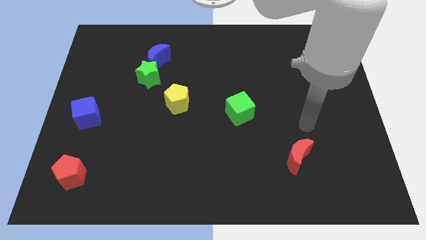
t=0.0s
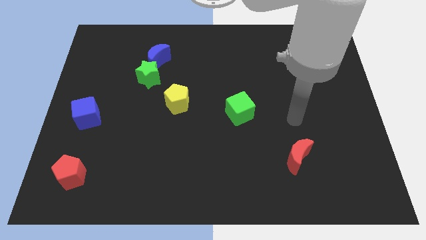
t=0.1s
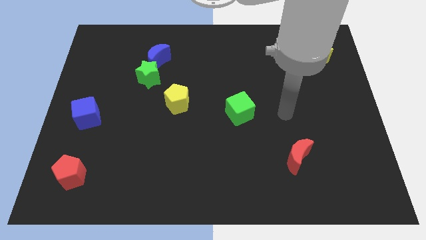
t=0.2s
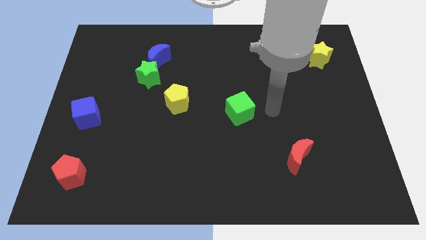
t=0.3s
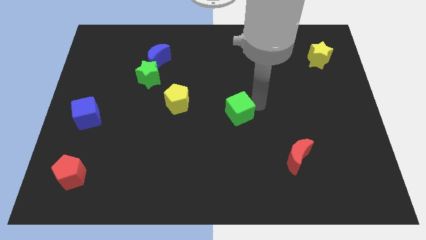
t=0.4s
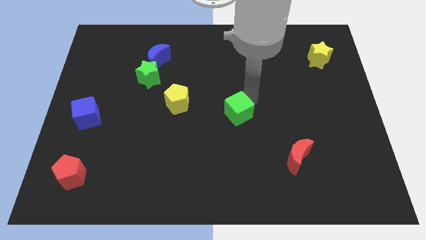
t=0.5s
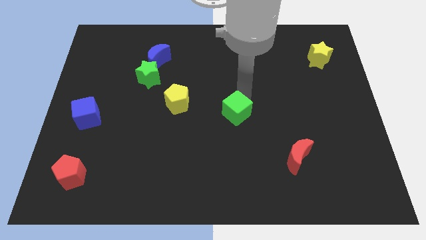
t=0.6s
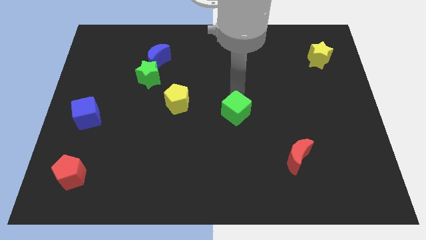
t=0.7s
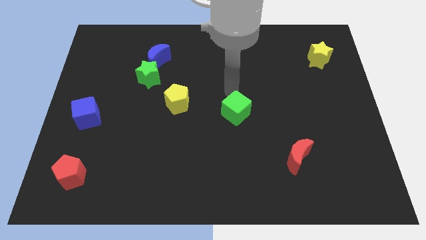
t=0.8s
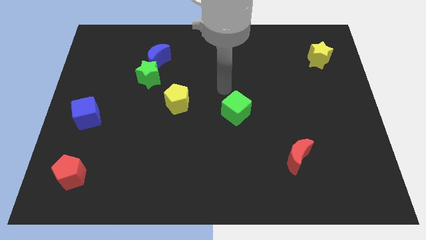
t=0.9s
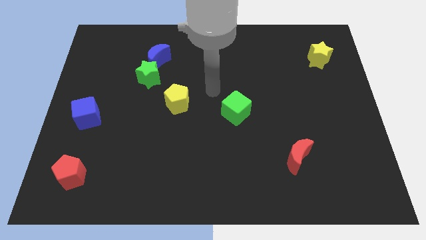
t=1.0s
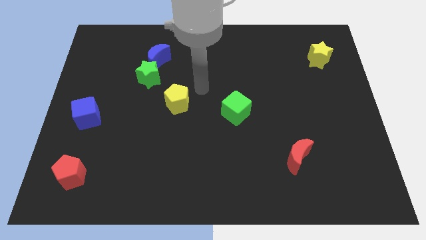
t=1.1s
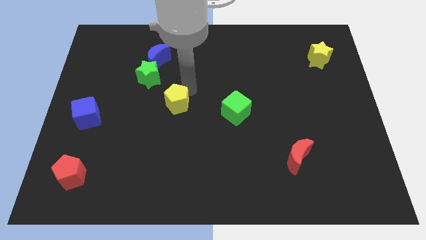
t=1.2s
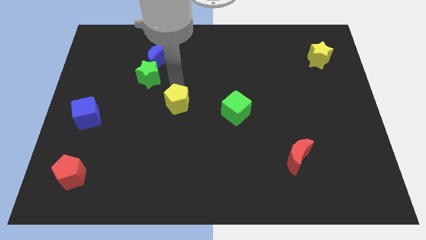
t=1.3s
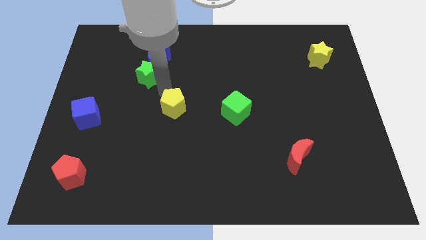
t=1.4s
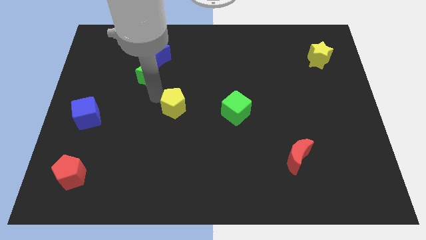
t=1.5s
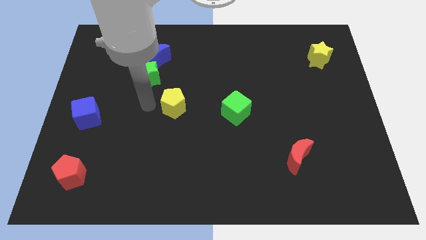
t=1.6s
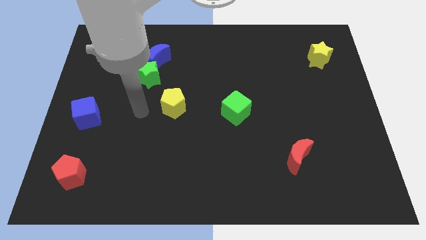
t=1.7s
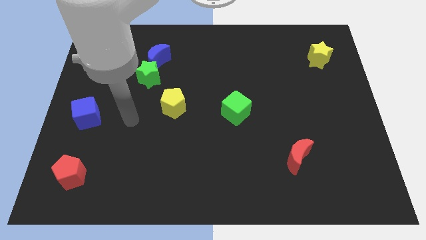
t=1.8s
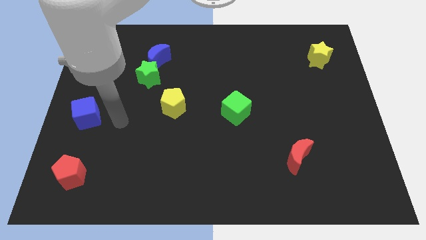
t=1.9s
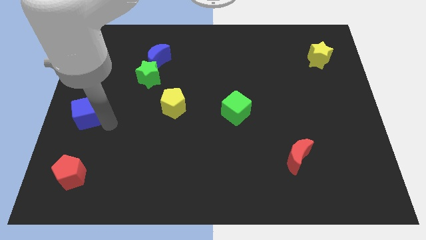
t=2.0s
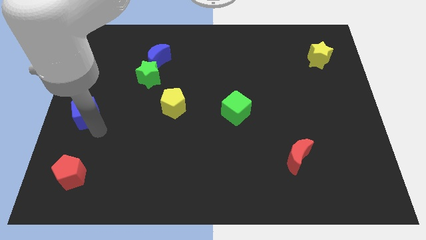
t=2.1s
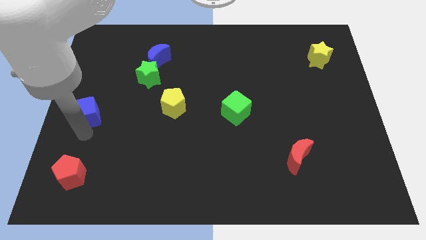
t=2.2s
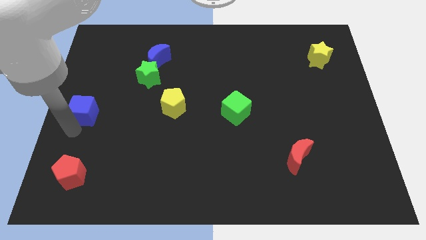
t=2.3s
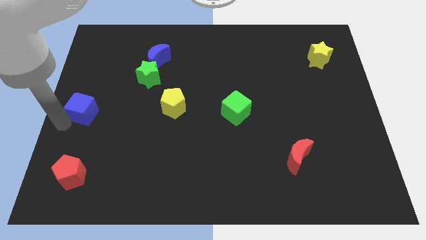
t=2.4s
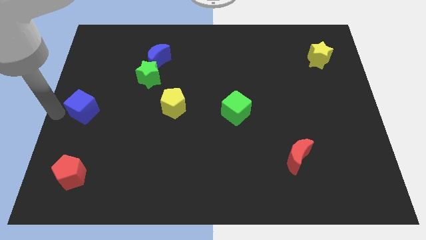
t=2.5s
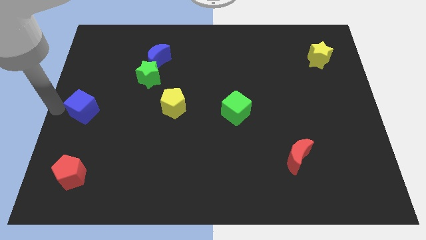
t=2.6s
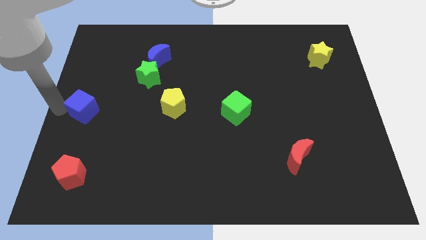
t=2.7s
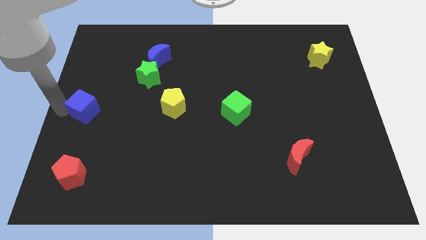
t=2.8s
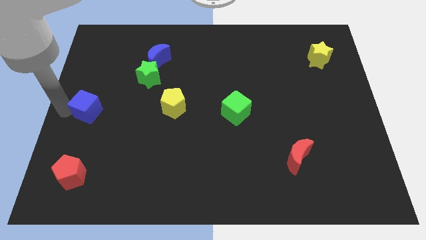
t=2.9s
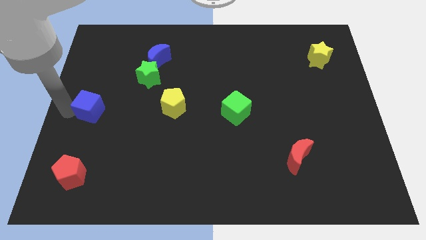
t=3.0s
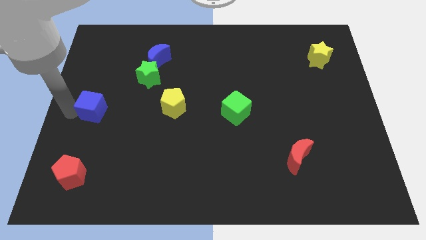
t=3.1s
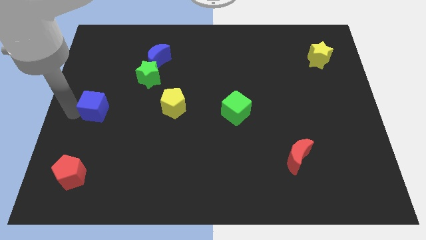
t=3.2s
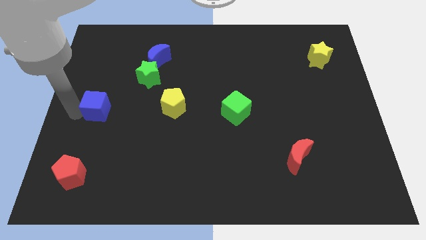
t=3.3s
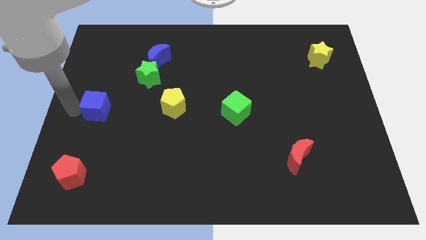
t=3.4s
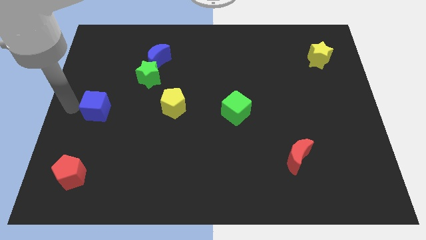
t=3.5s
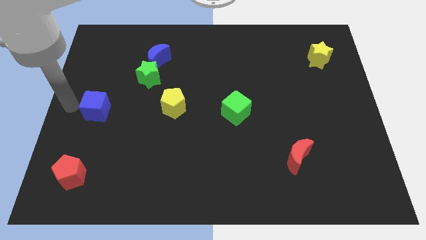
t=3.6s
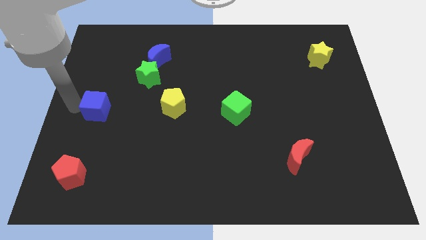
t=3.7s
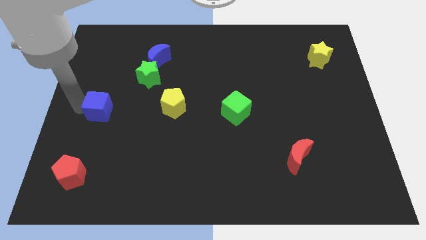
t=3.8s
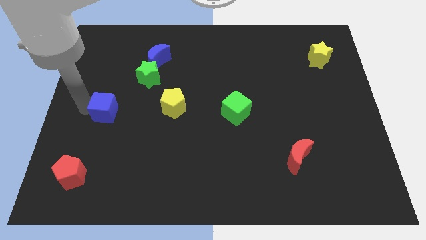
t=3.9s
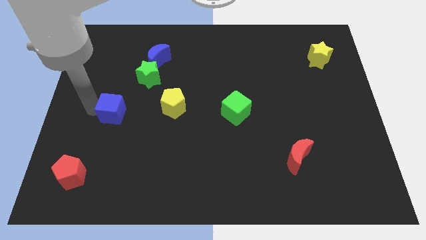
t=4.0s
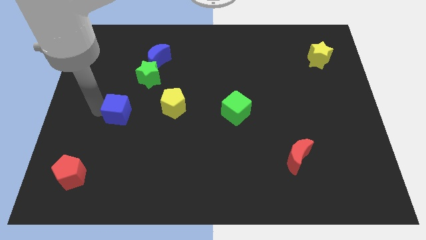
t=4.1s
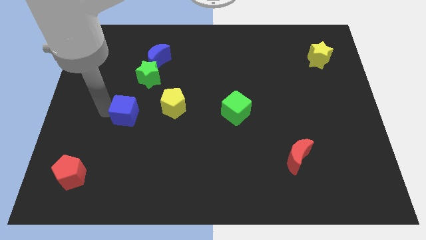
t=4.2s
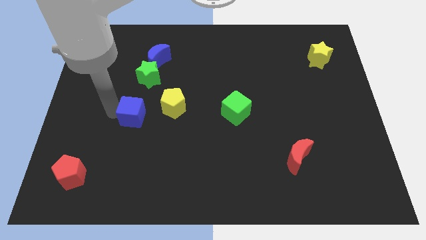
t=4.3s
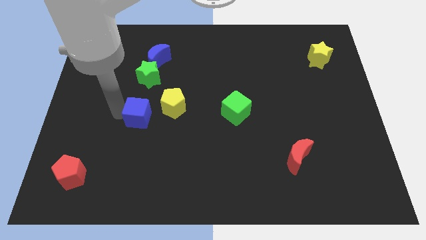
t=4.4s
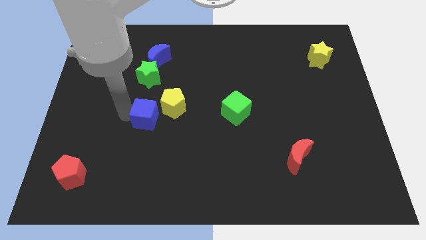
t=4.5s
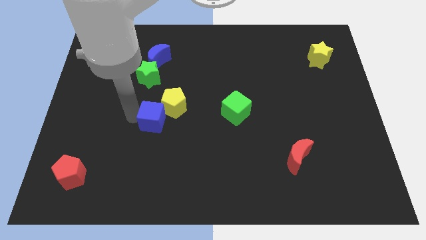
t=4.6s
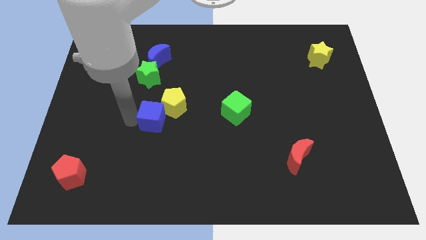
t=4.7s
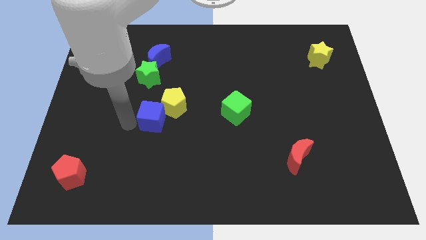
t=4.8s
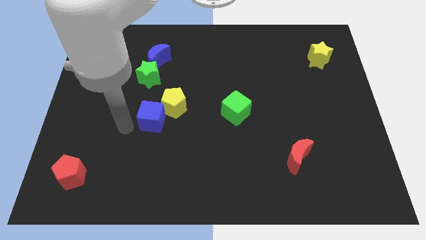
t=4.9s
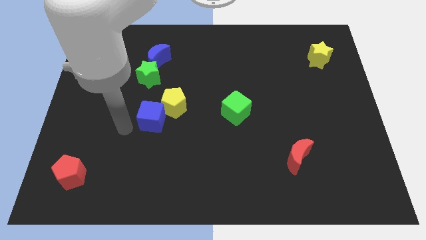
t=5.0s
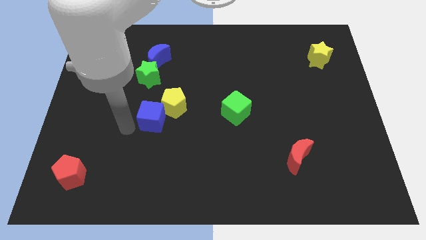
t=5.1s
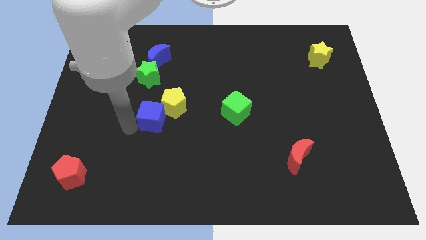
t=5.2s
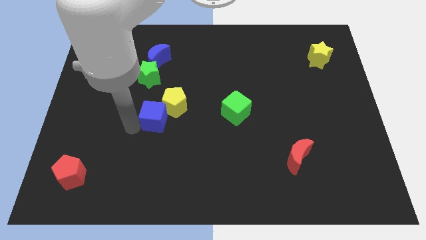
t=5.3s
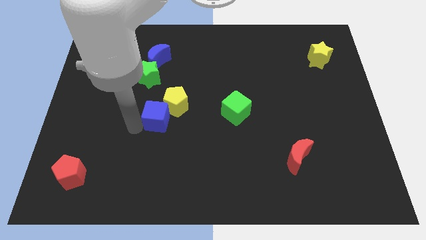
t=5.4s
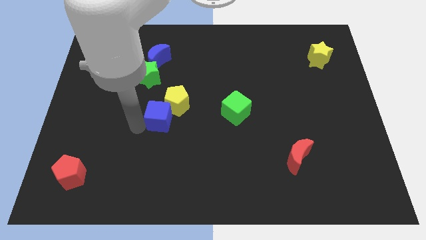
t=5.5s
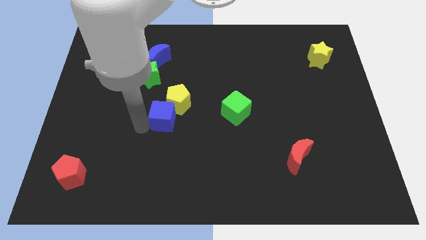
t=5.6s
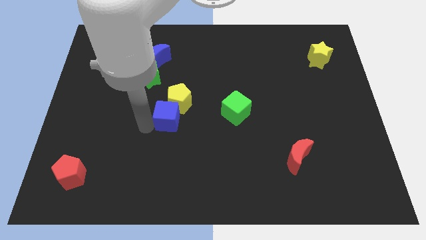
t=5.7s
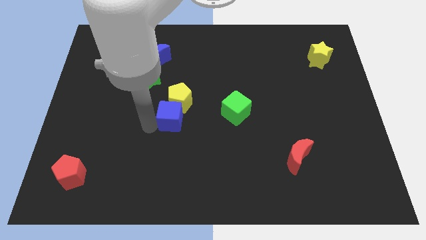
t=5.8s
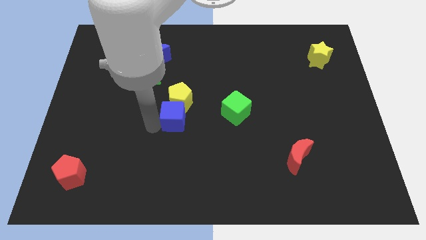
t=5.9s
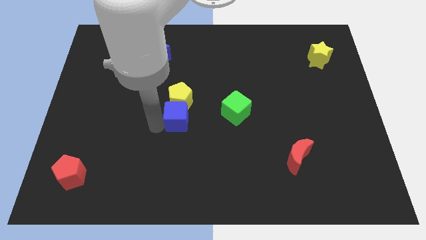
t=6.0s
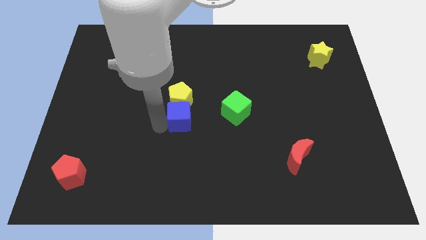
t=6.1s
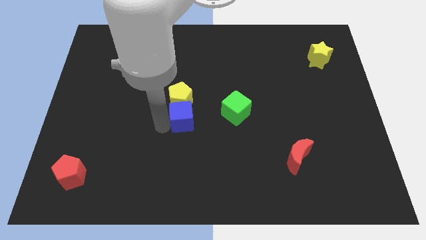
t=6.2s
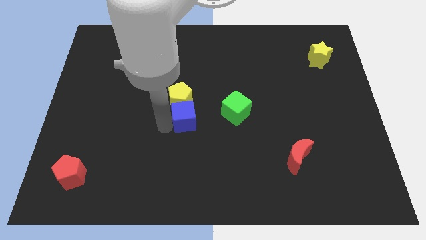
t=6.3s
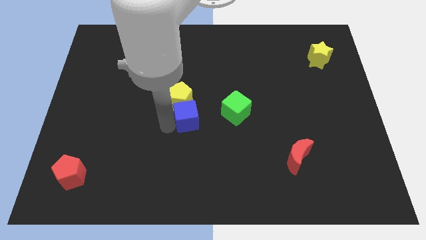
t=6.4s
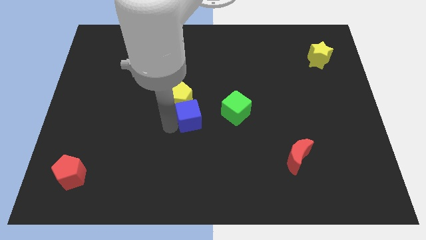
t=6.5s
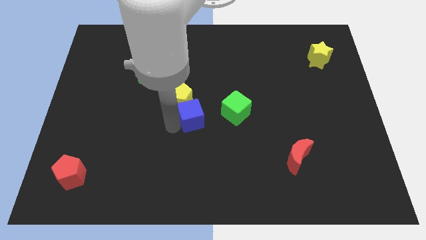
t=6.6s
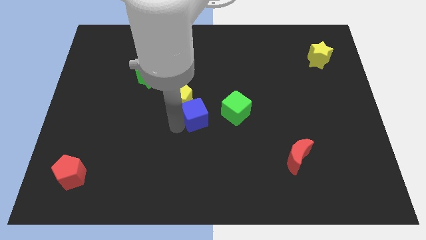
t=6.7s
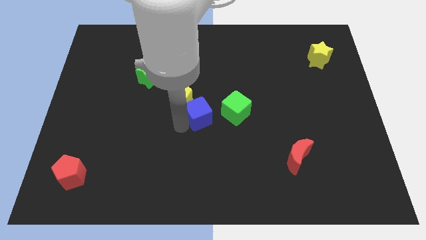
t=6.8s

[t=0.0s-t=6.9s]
move the blue cube to the right of the yellow pentagon
